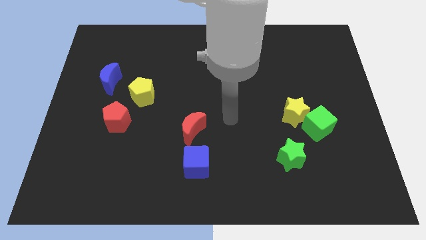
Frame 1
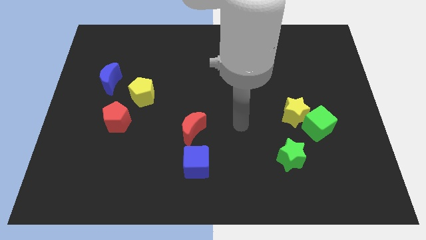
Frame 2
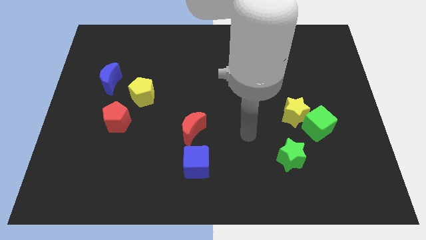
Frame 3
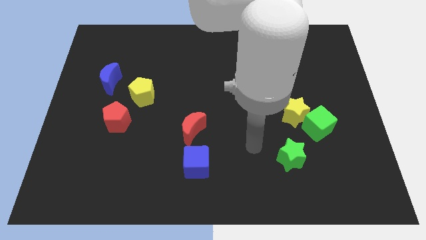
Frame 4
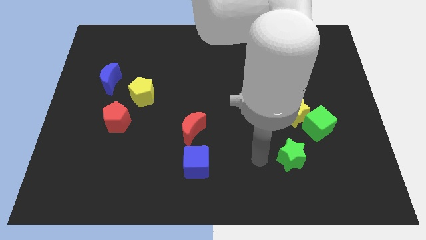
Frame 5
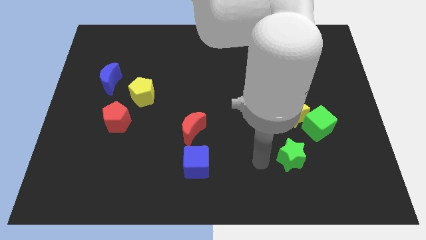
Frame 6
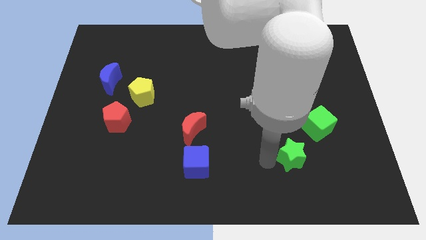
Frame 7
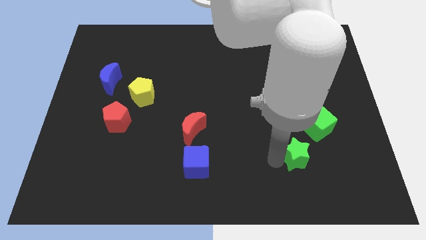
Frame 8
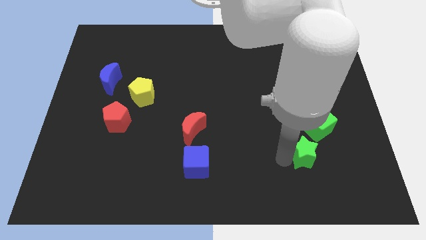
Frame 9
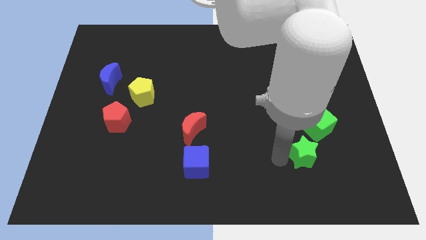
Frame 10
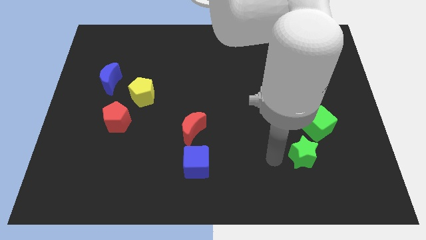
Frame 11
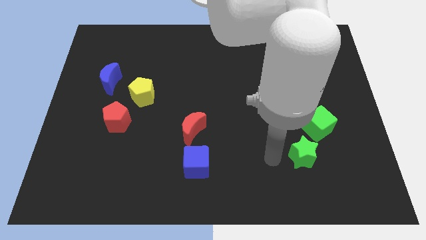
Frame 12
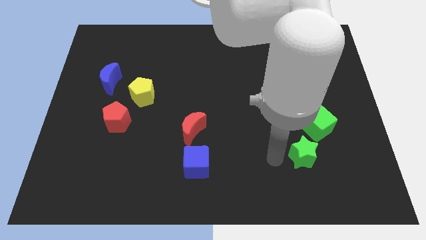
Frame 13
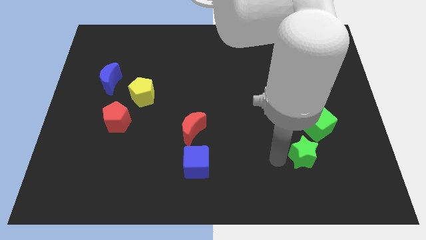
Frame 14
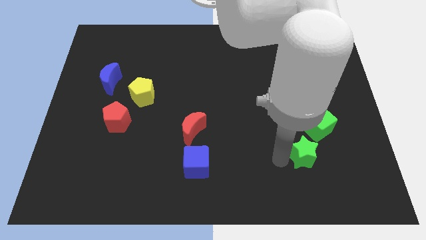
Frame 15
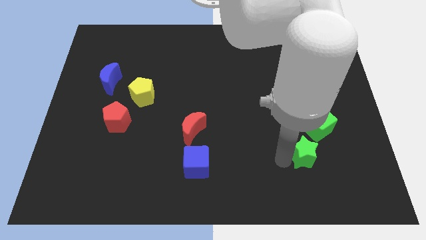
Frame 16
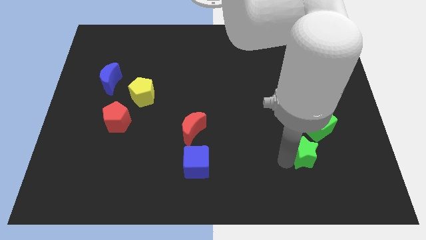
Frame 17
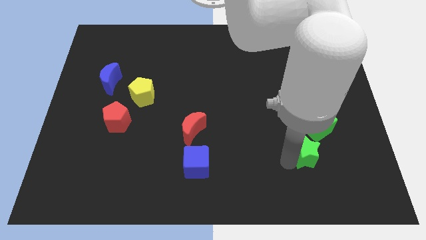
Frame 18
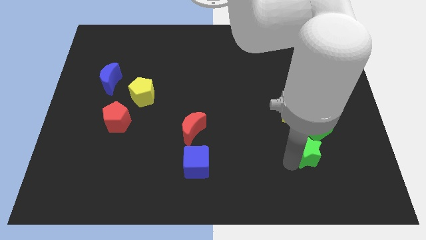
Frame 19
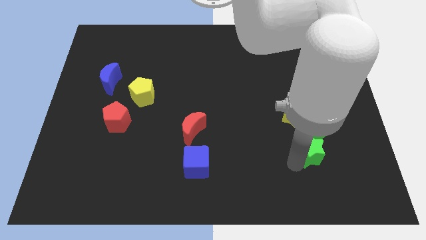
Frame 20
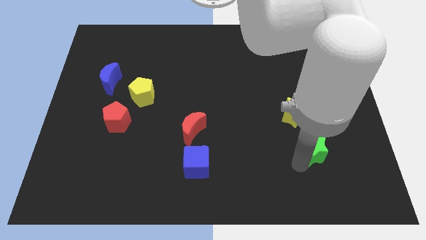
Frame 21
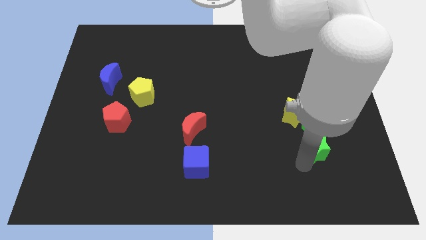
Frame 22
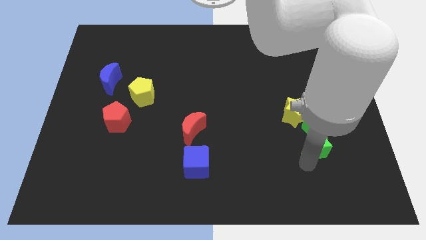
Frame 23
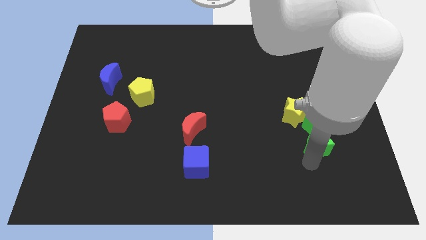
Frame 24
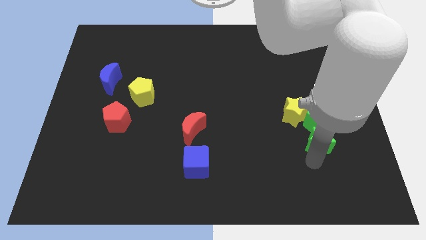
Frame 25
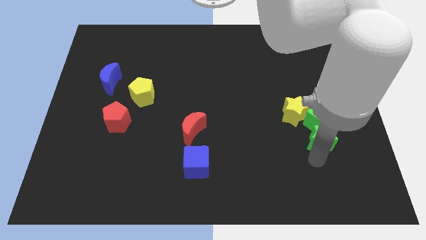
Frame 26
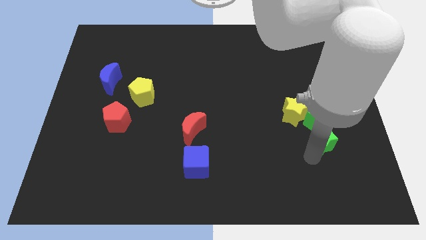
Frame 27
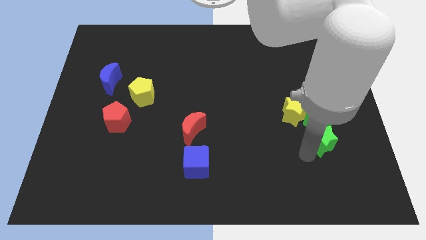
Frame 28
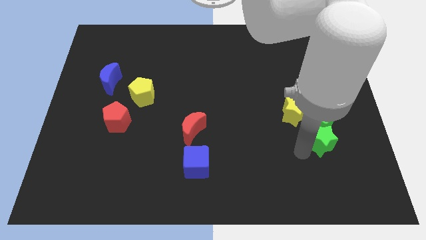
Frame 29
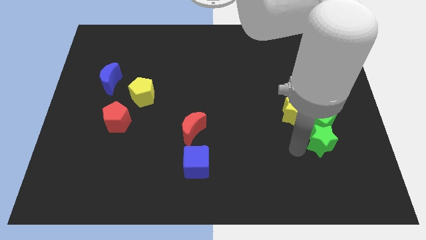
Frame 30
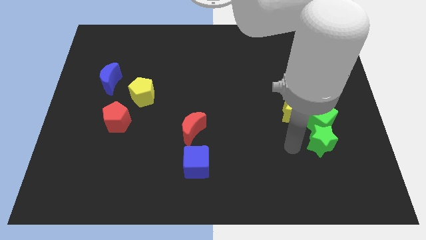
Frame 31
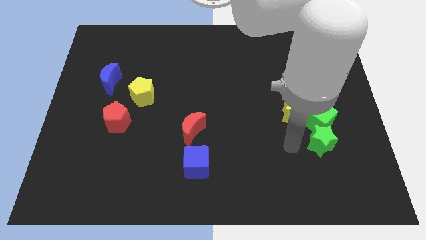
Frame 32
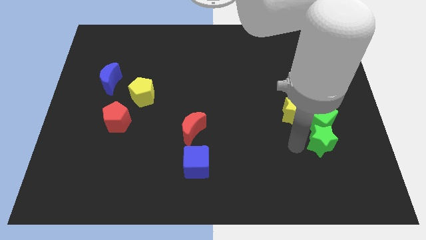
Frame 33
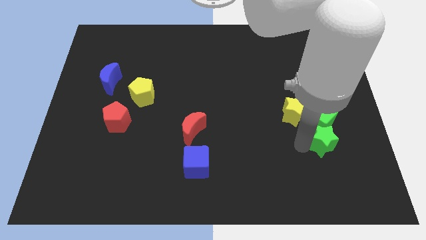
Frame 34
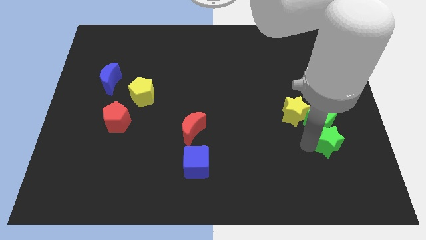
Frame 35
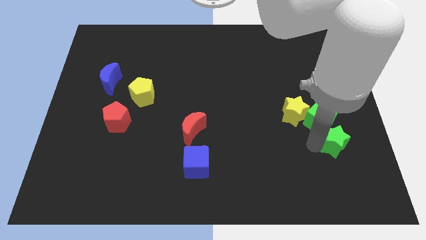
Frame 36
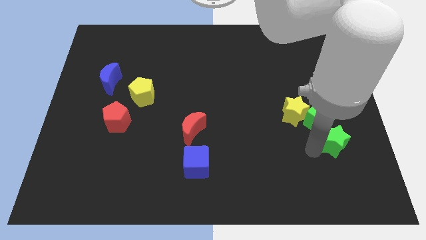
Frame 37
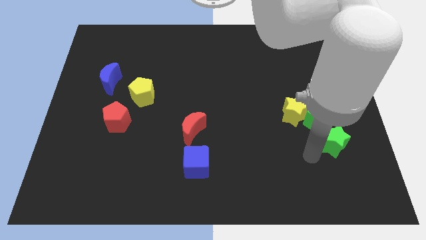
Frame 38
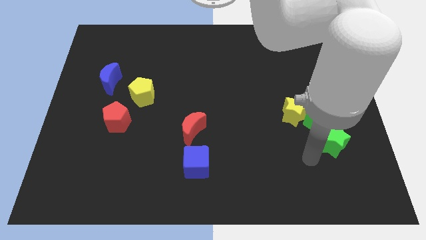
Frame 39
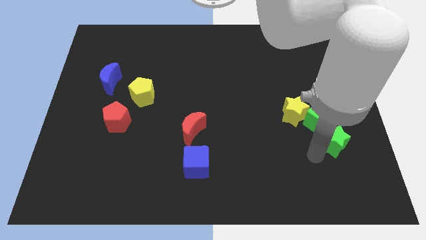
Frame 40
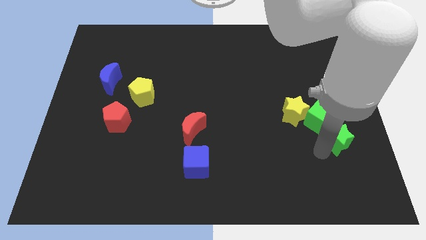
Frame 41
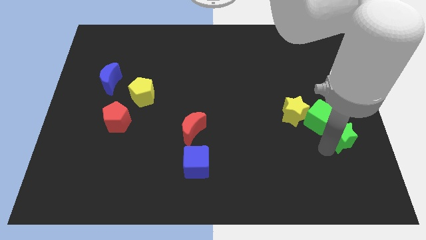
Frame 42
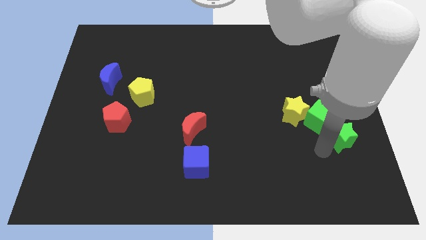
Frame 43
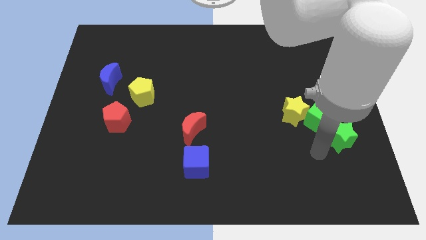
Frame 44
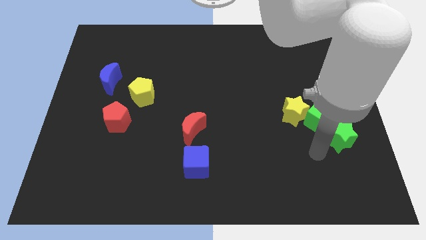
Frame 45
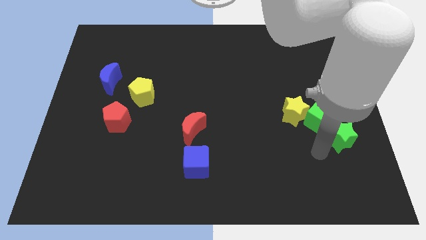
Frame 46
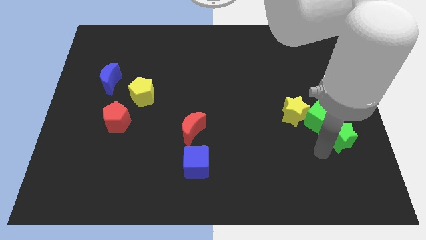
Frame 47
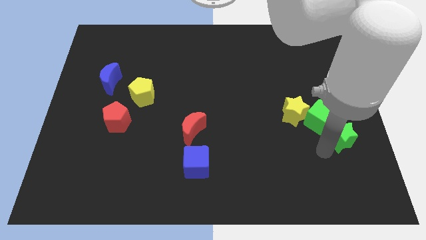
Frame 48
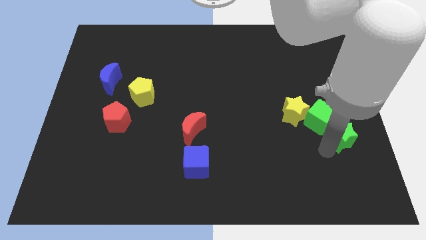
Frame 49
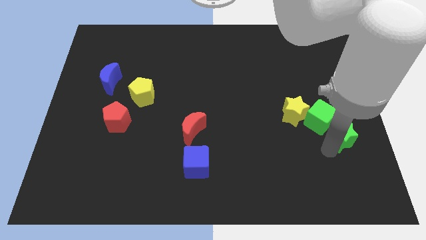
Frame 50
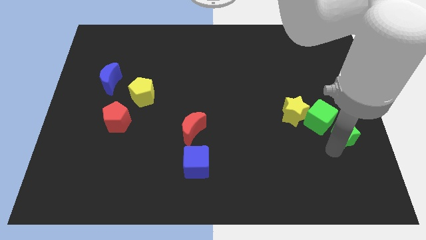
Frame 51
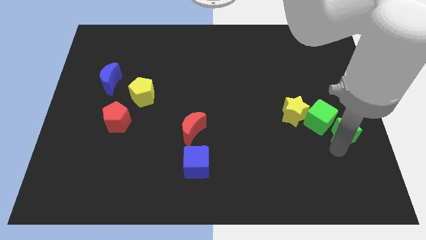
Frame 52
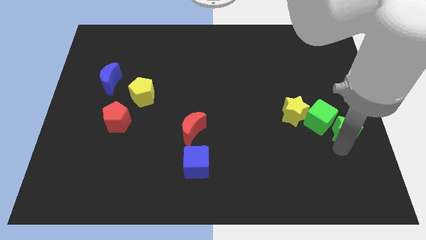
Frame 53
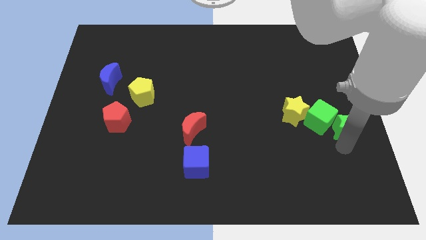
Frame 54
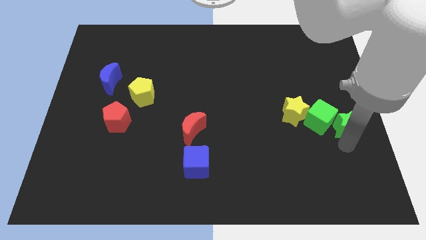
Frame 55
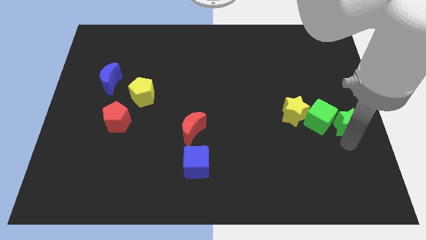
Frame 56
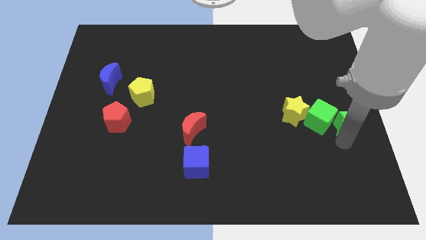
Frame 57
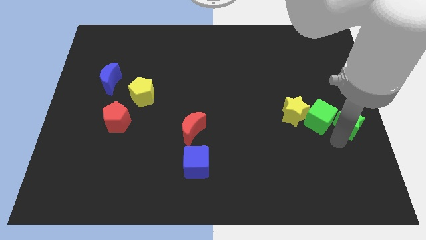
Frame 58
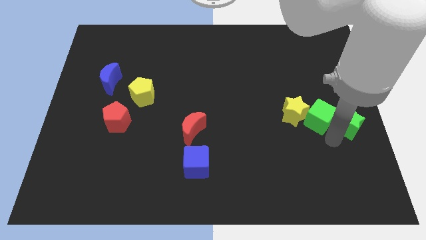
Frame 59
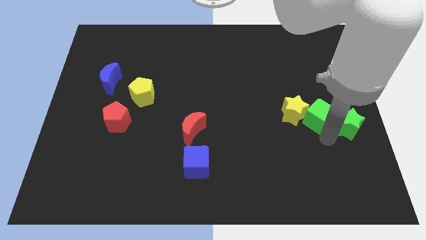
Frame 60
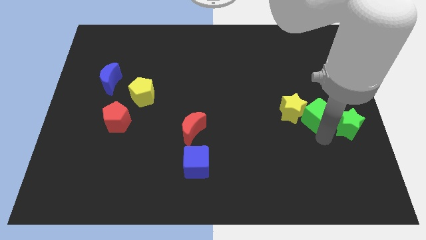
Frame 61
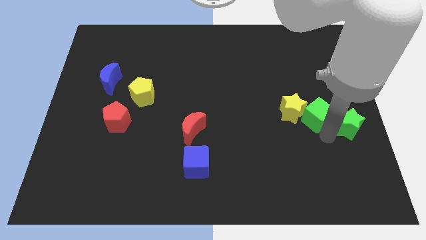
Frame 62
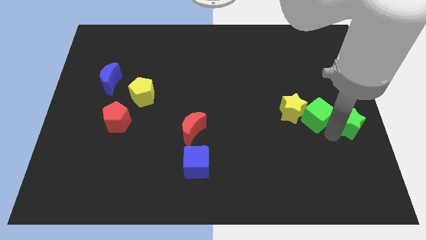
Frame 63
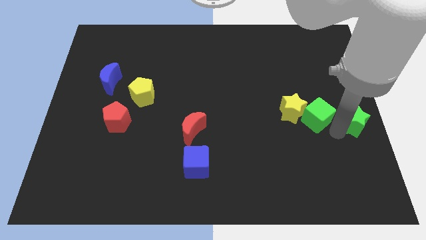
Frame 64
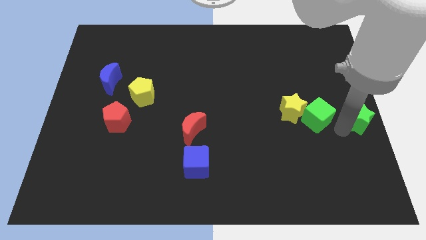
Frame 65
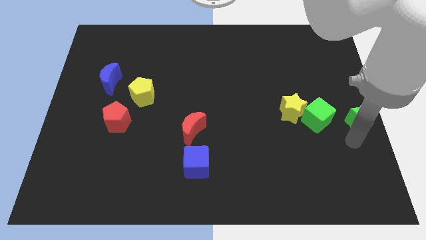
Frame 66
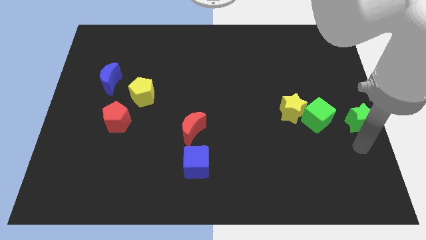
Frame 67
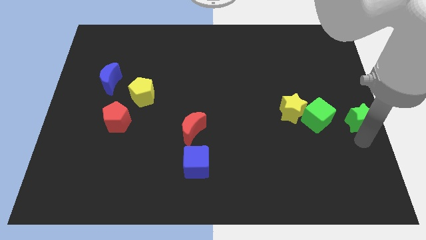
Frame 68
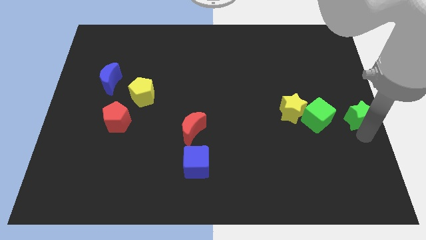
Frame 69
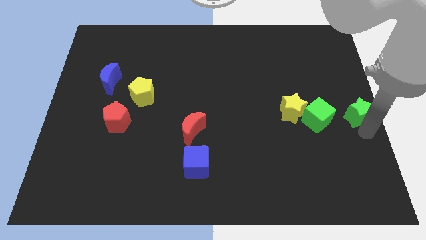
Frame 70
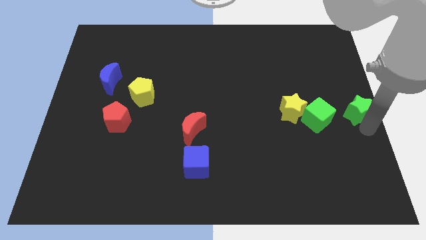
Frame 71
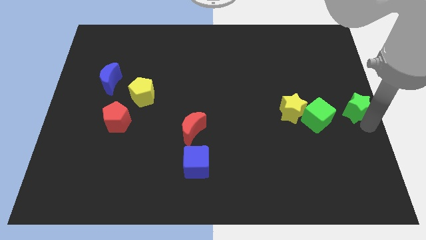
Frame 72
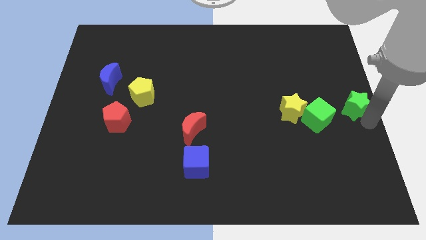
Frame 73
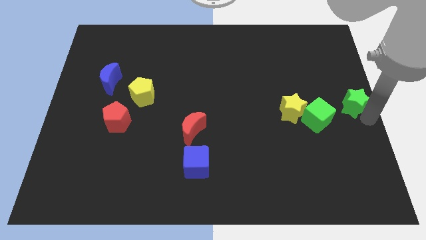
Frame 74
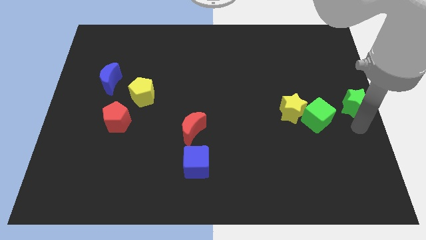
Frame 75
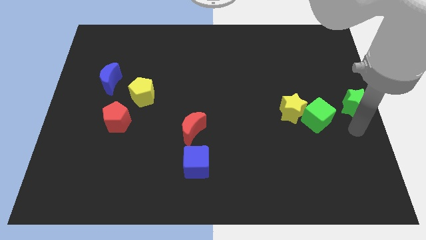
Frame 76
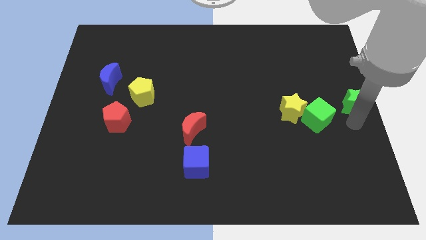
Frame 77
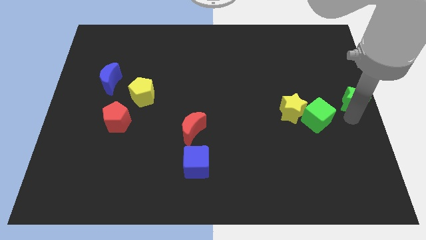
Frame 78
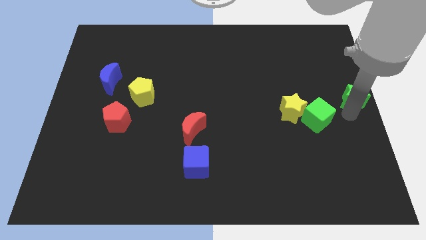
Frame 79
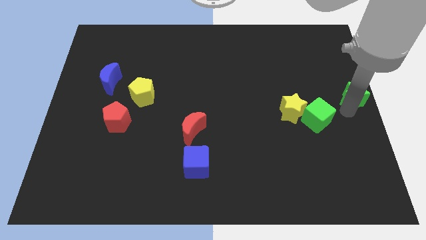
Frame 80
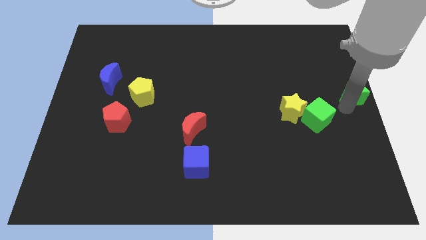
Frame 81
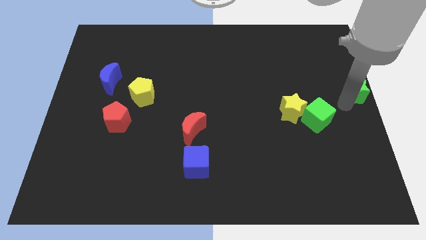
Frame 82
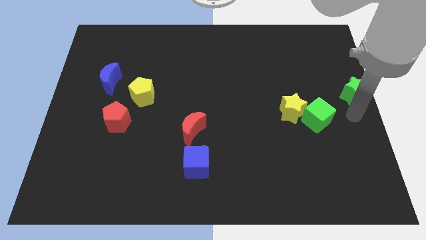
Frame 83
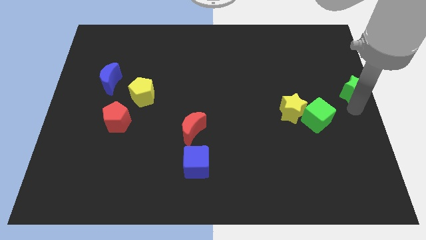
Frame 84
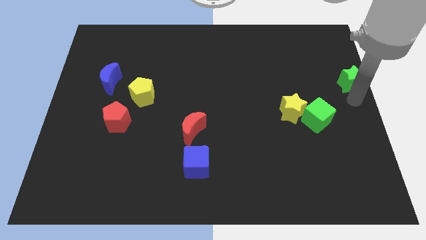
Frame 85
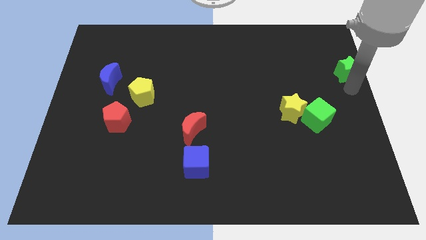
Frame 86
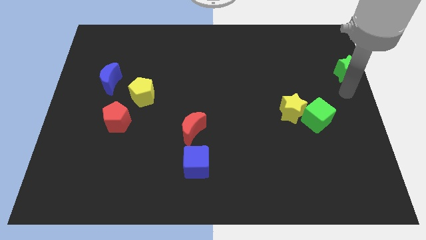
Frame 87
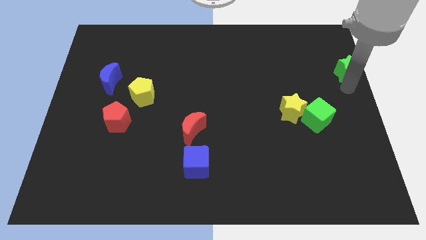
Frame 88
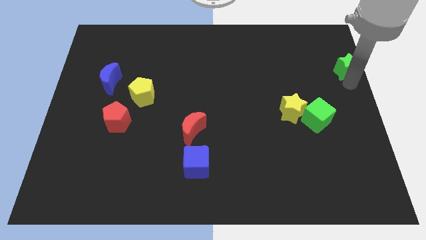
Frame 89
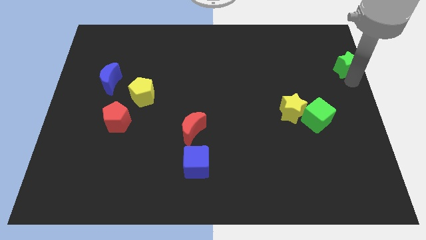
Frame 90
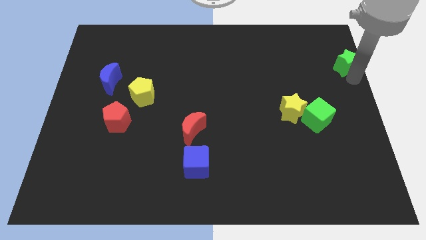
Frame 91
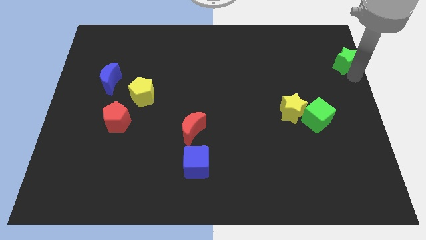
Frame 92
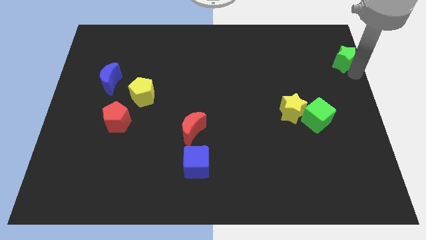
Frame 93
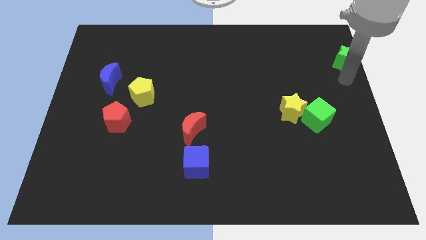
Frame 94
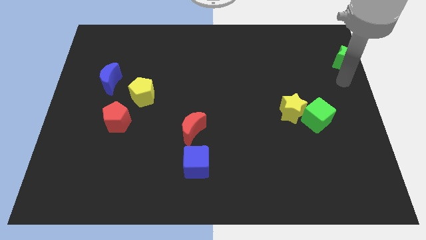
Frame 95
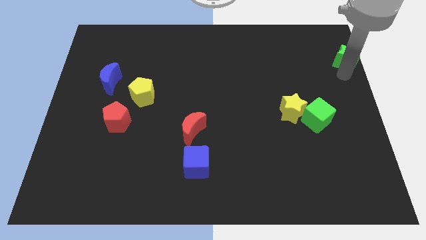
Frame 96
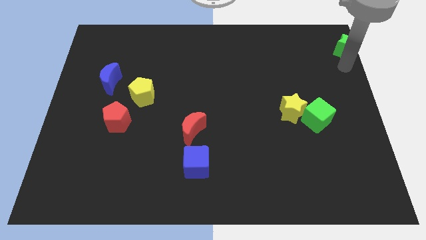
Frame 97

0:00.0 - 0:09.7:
move the green star to the top right corner
